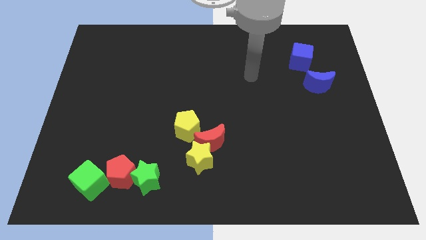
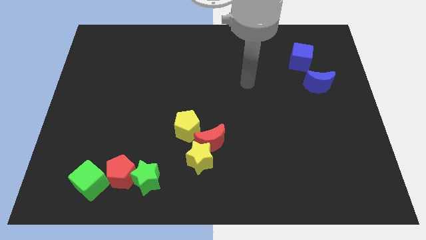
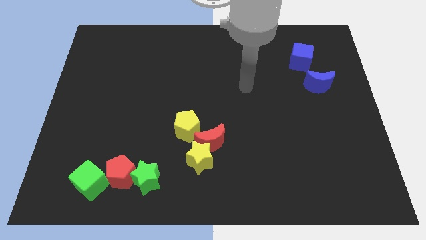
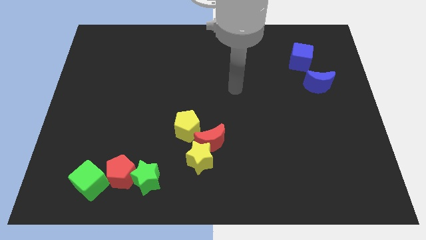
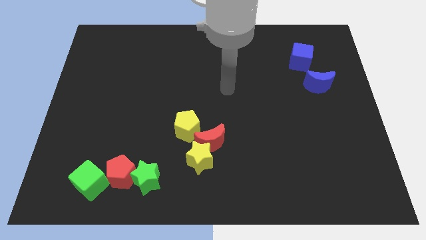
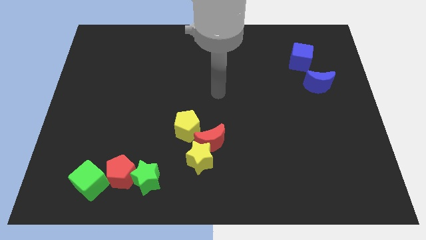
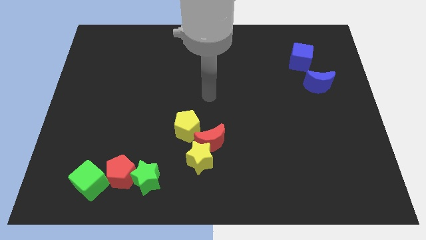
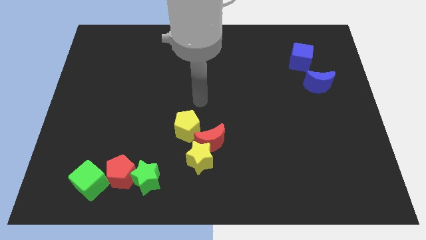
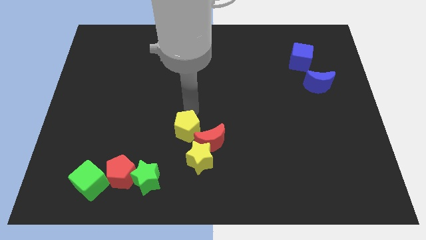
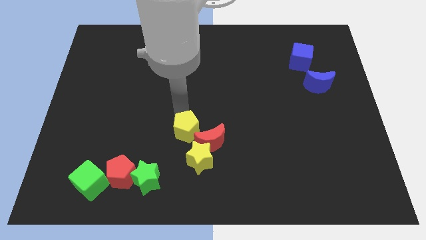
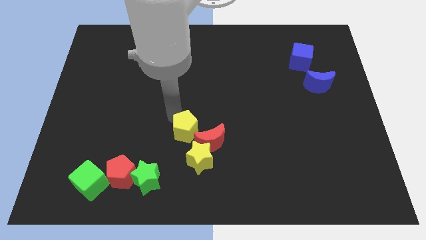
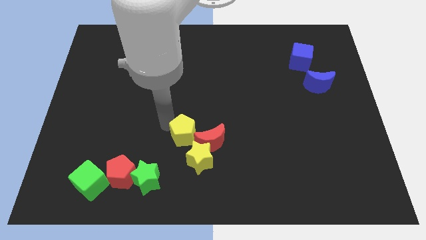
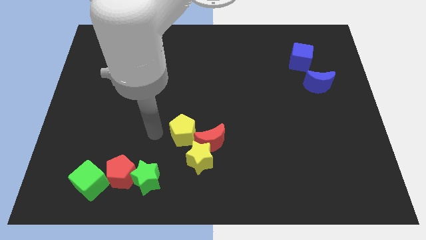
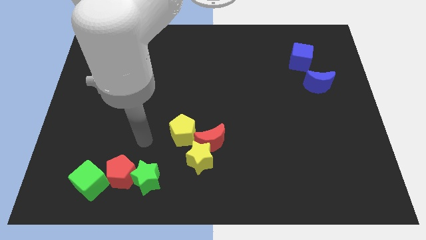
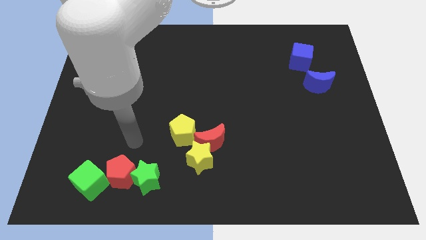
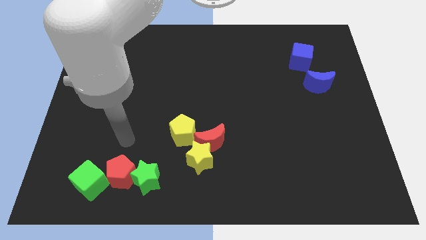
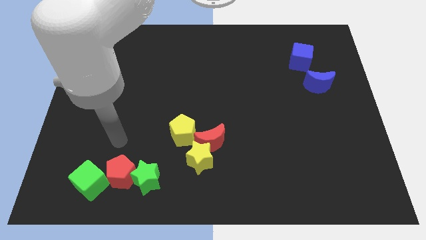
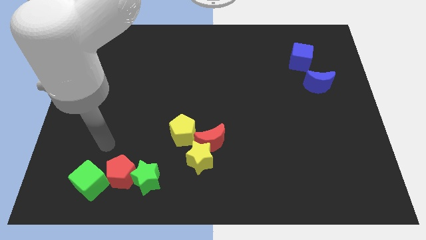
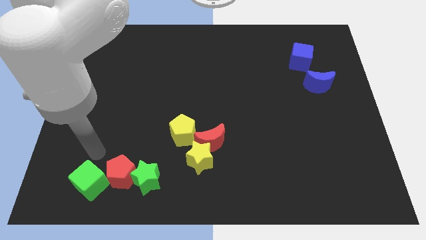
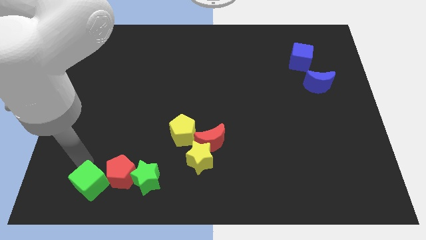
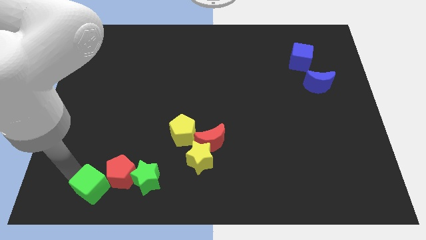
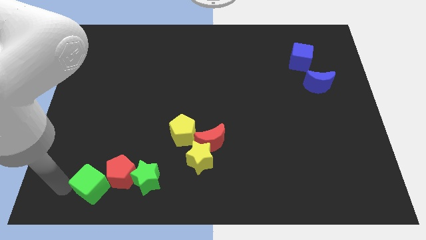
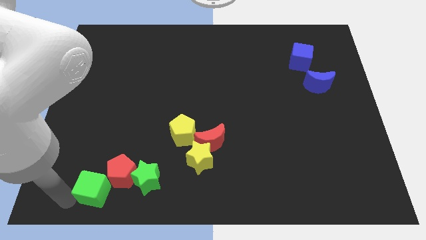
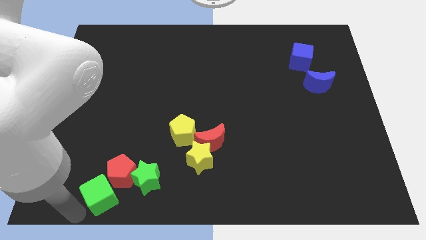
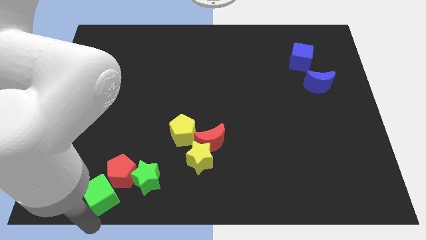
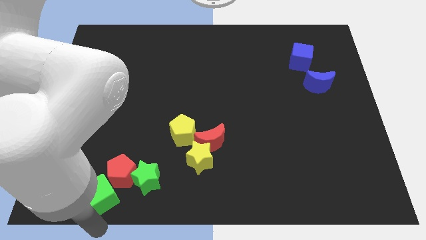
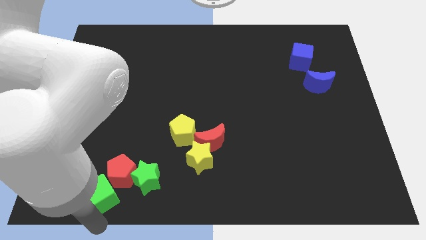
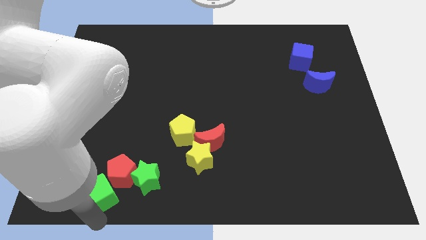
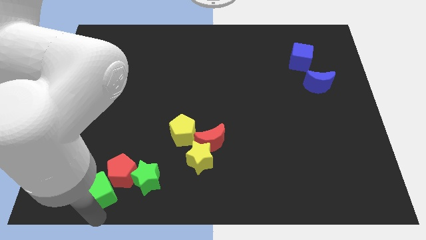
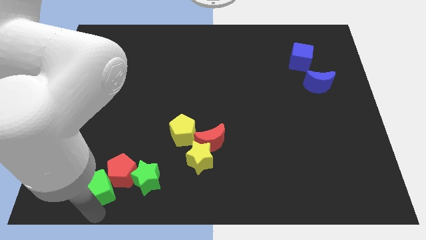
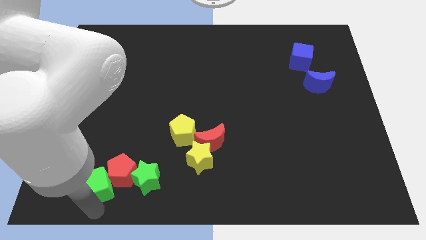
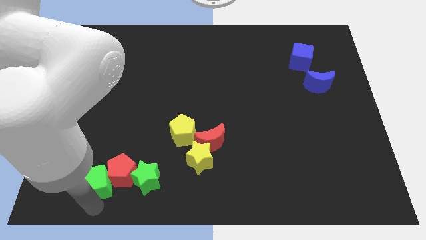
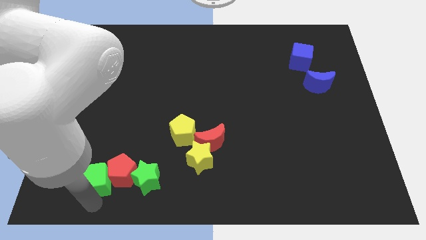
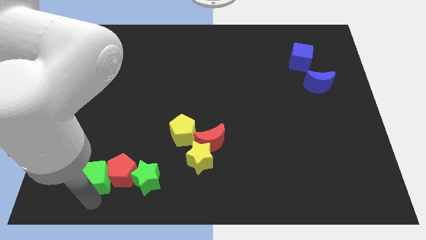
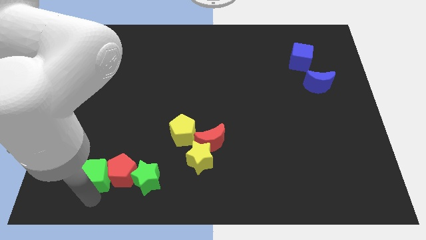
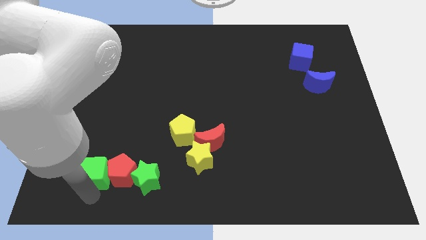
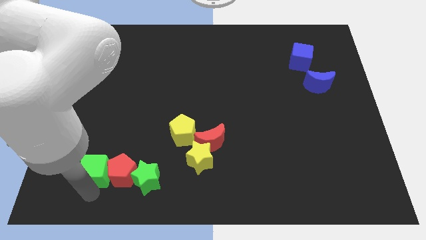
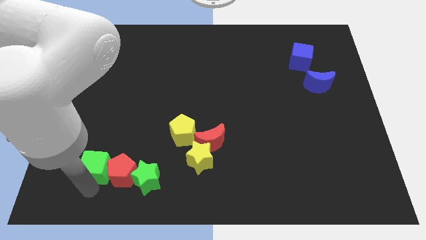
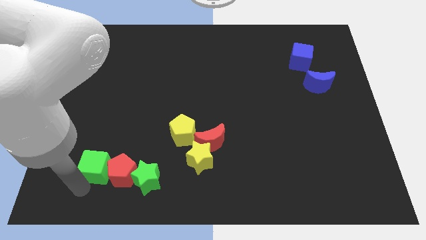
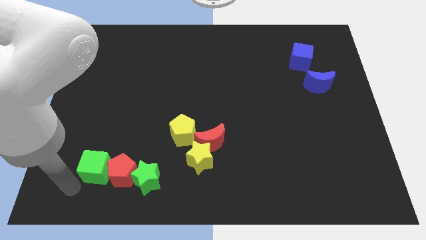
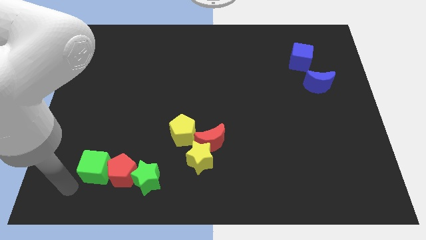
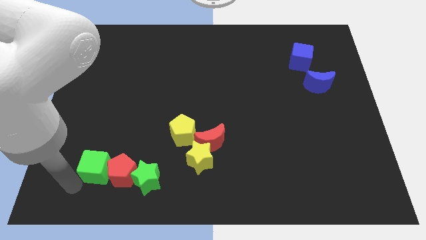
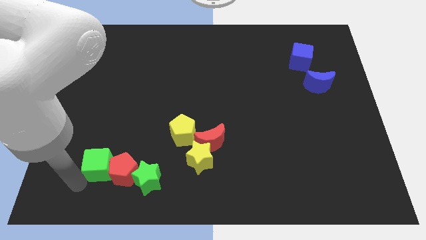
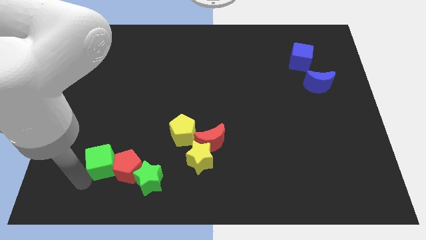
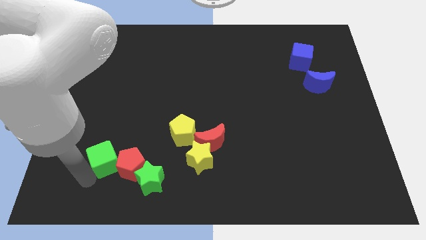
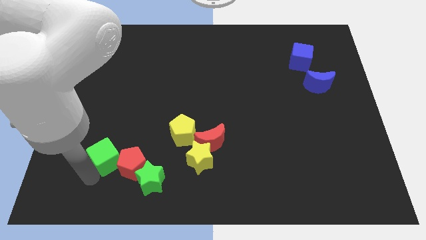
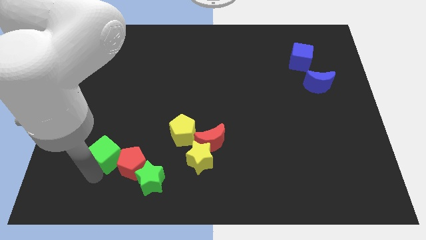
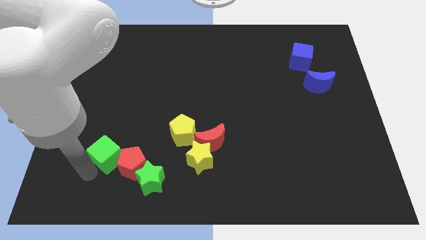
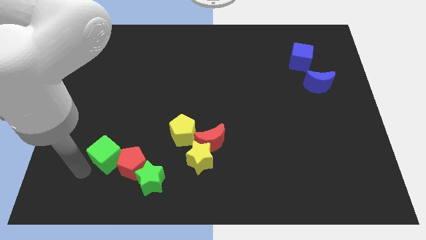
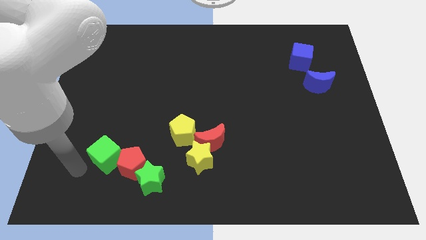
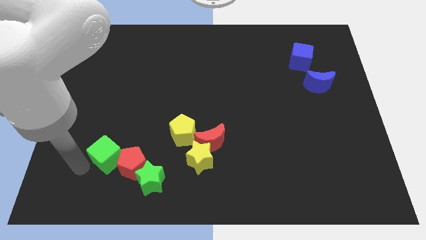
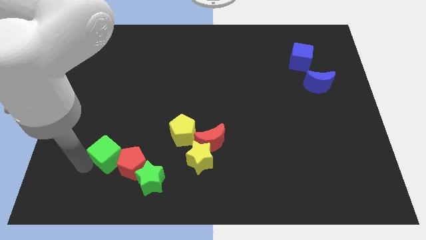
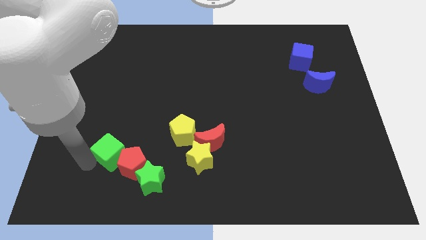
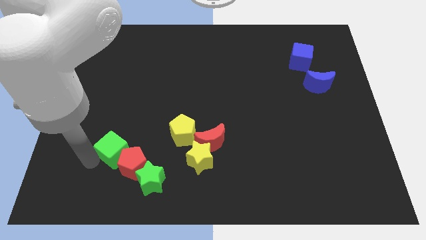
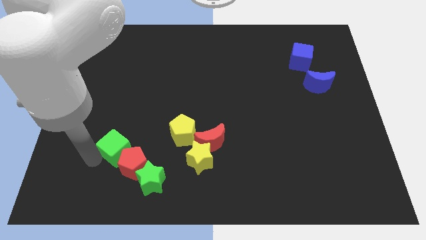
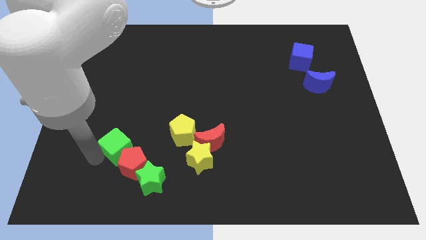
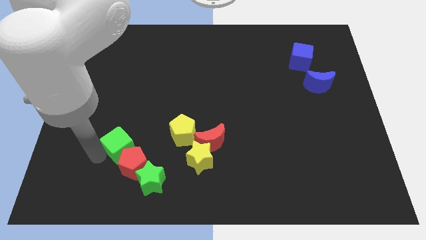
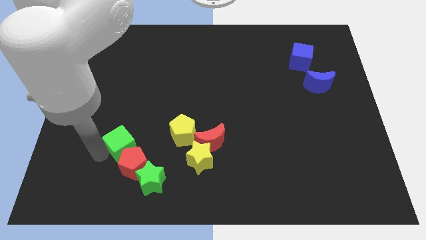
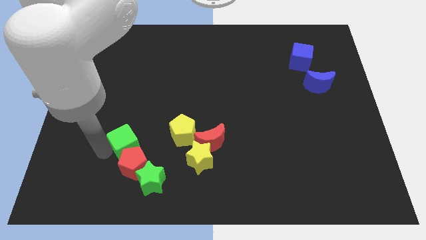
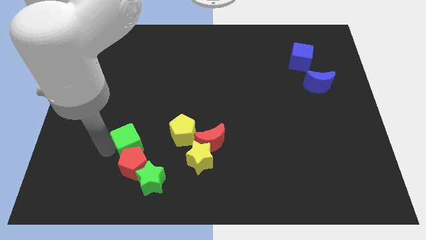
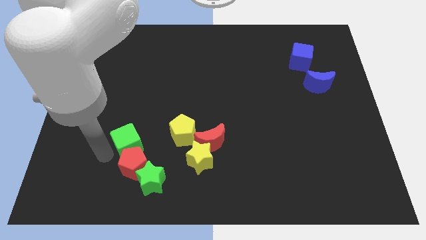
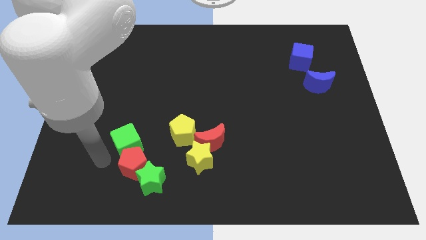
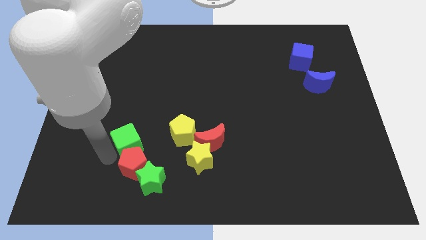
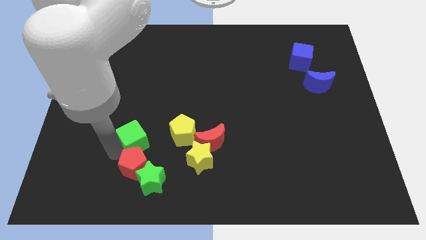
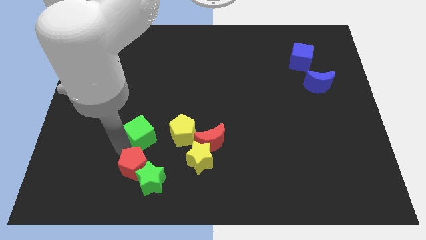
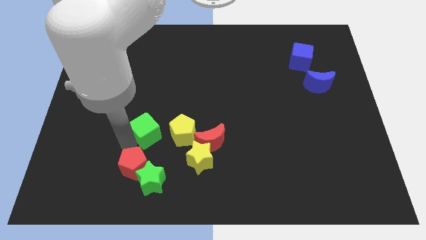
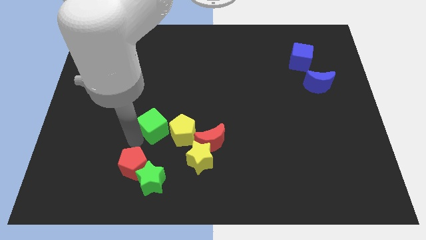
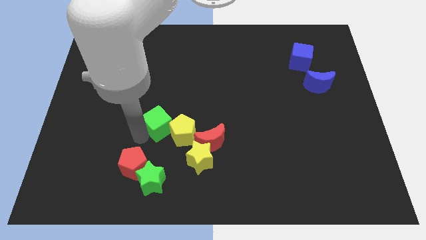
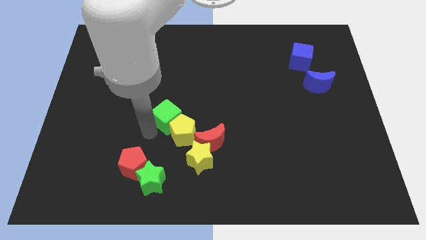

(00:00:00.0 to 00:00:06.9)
push the green cube to the top side of the yellow pentagon

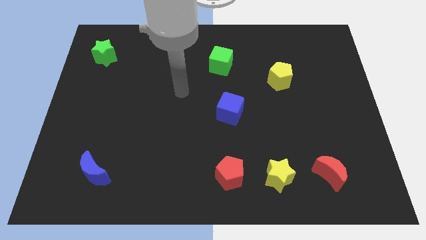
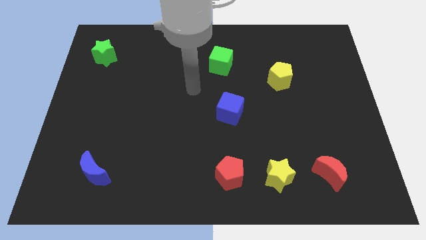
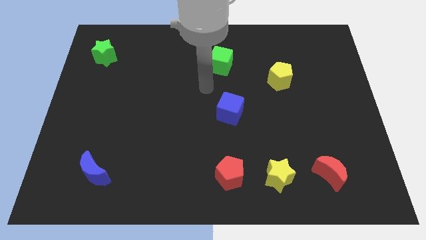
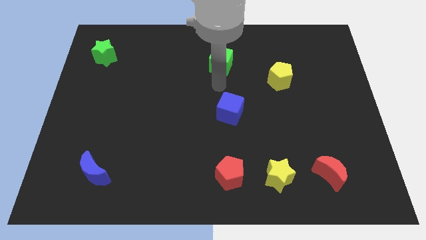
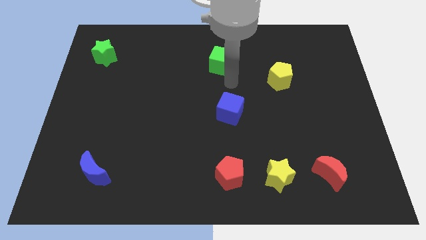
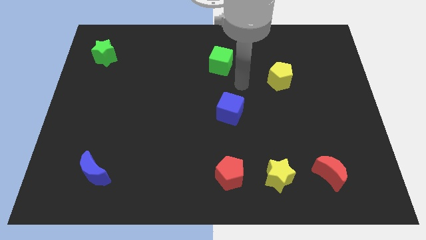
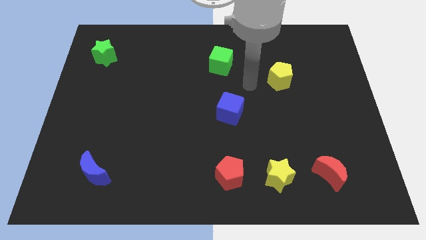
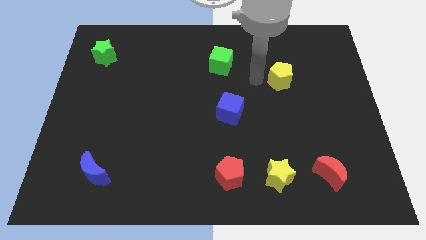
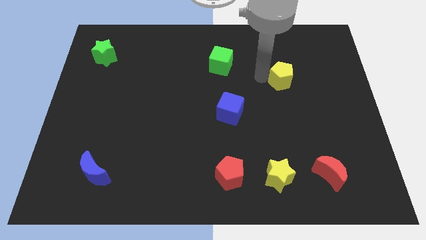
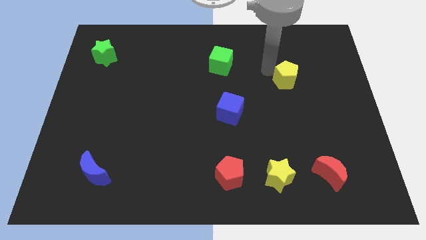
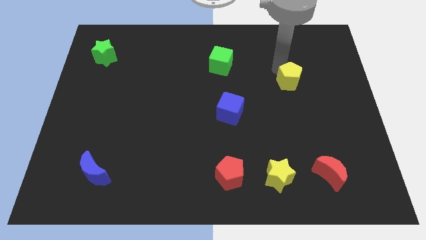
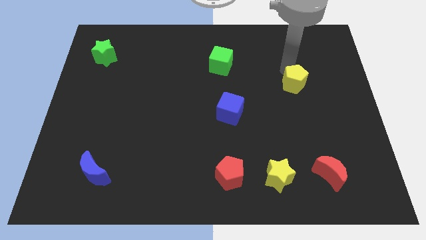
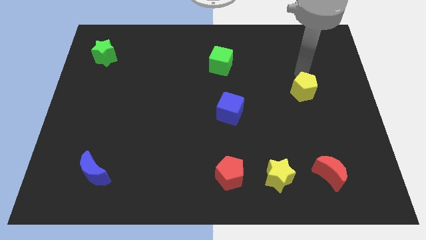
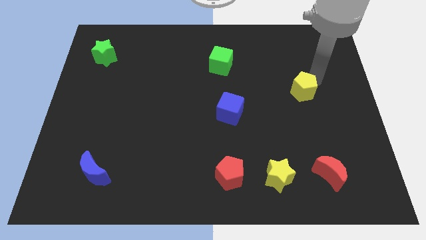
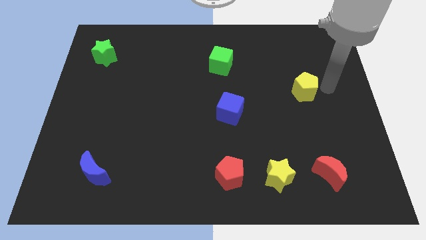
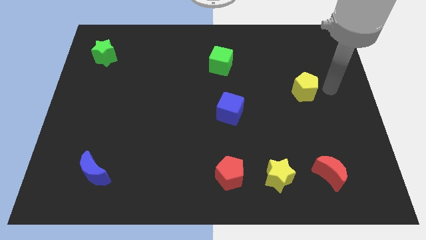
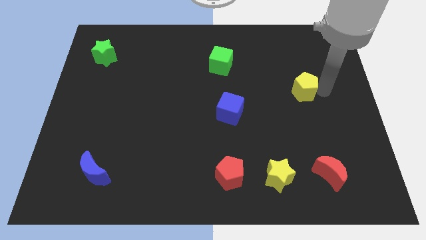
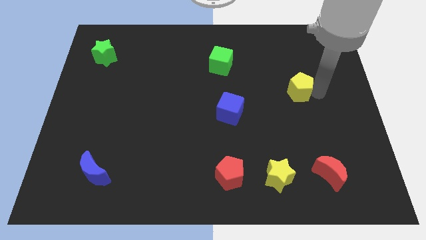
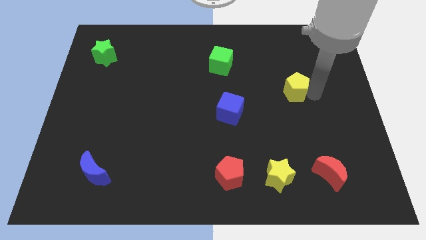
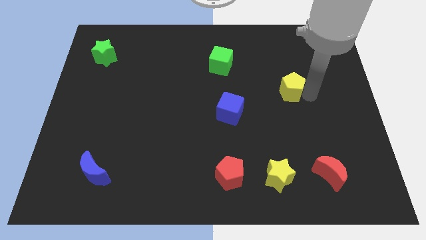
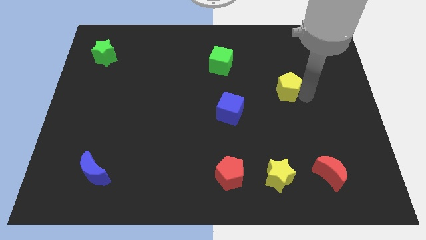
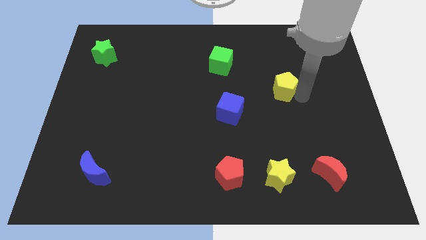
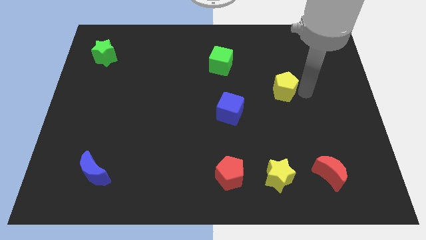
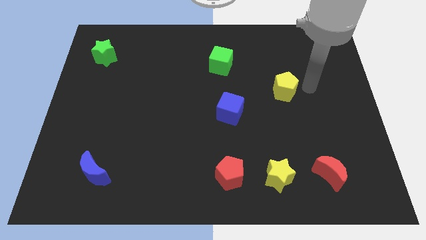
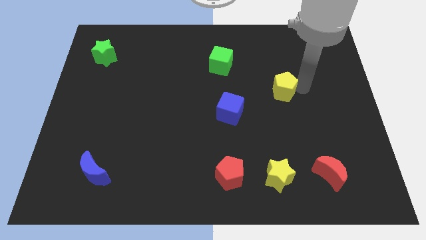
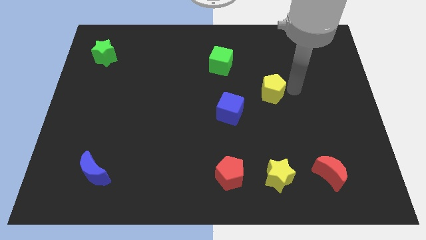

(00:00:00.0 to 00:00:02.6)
put the yellow pentagon diagonally up and to the right of the blue cube
